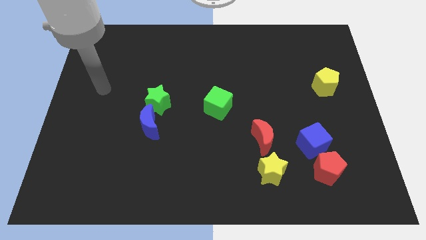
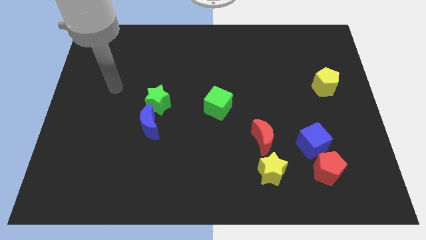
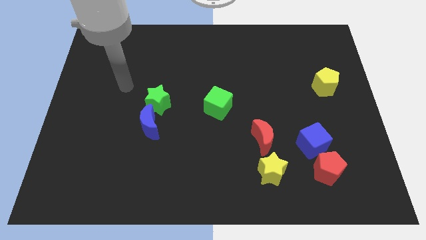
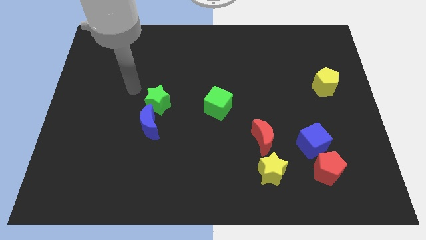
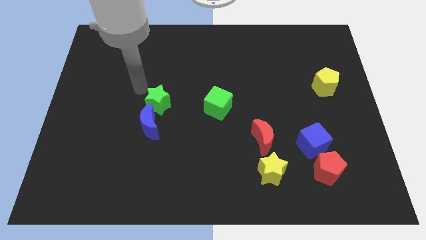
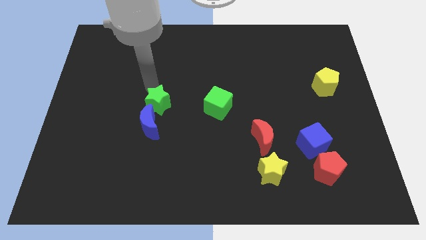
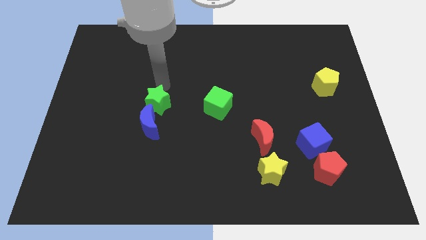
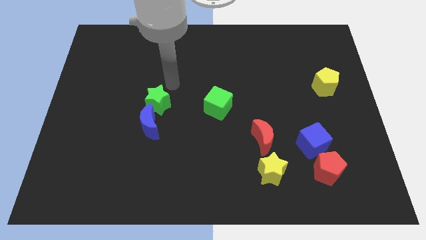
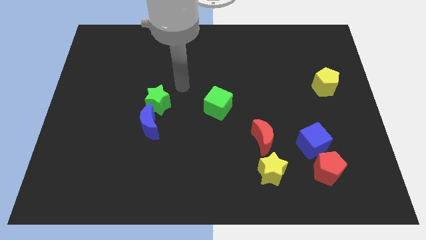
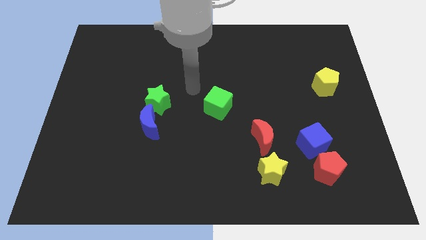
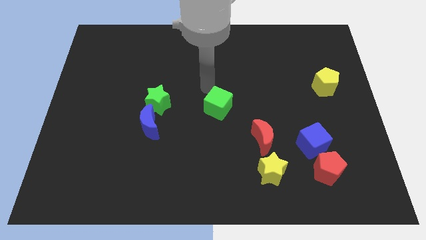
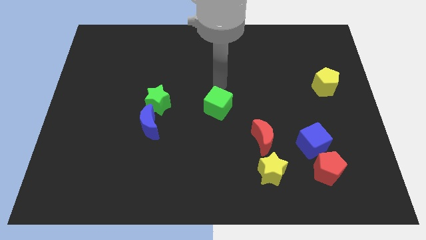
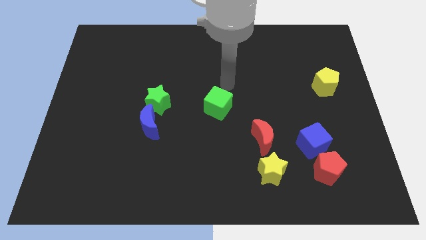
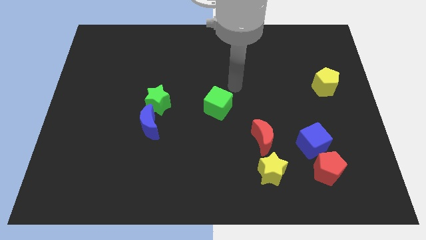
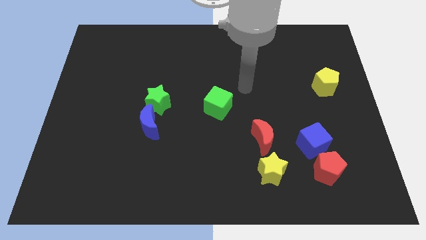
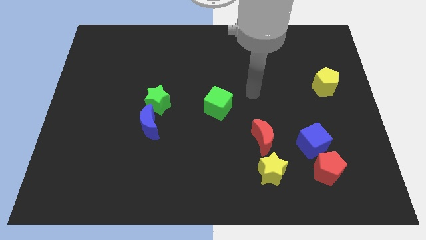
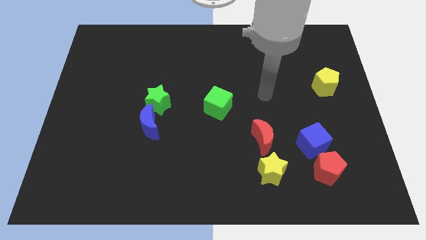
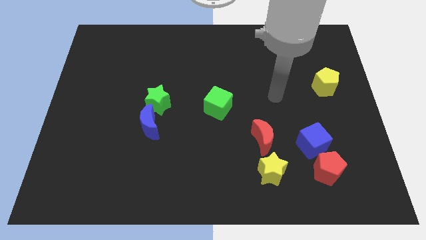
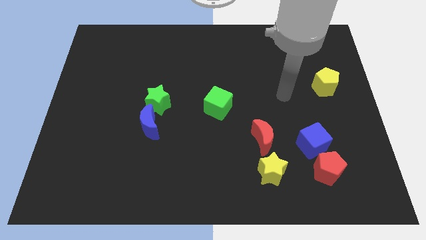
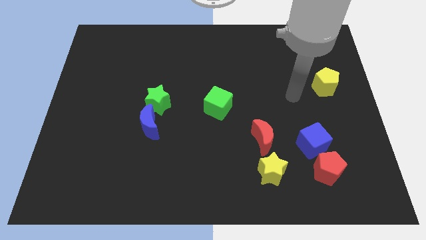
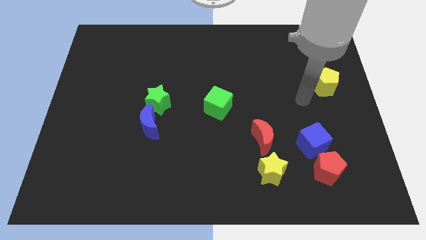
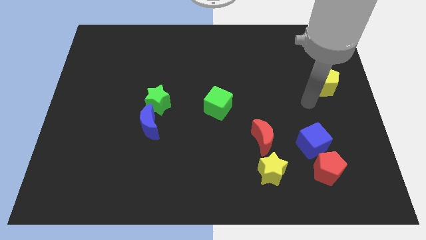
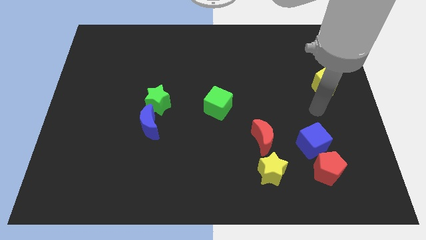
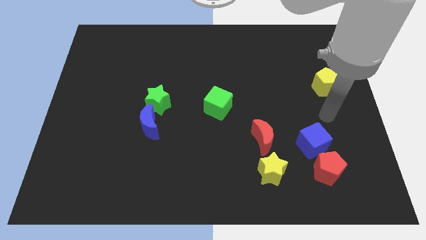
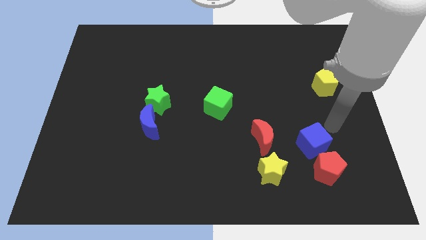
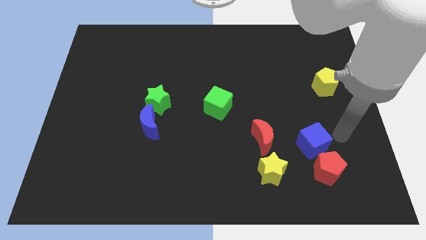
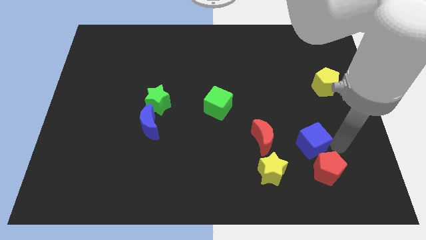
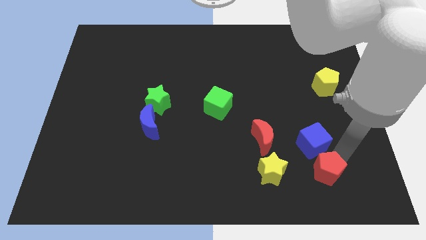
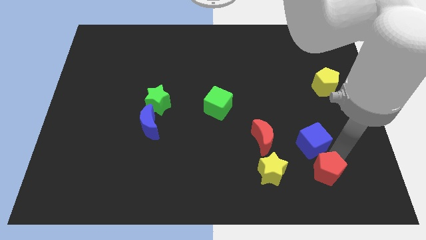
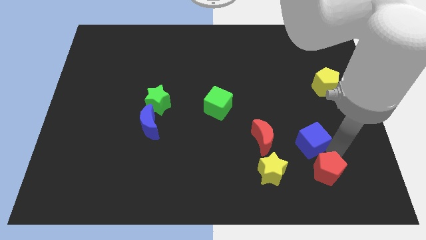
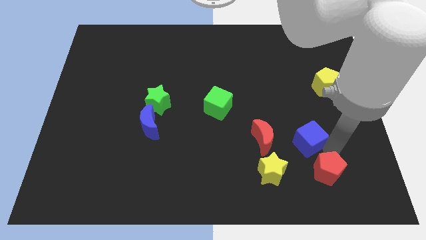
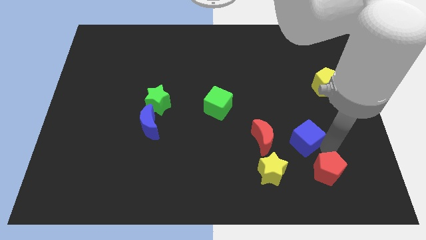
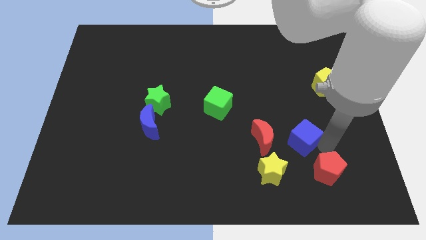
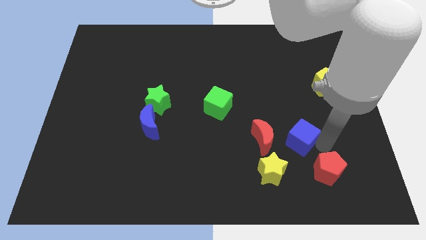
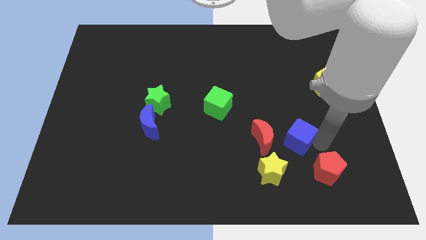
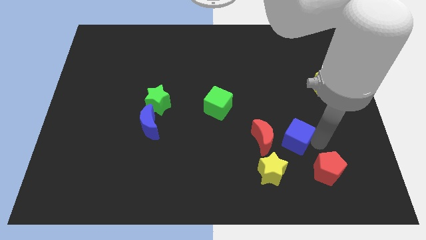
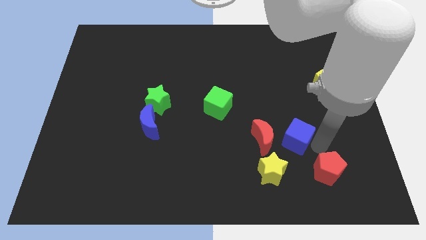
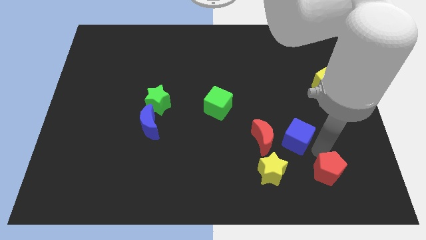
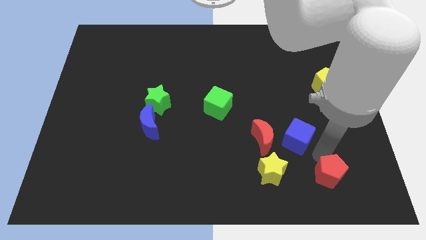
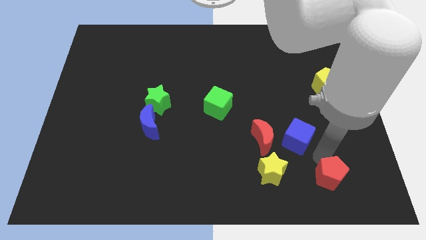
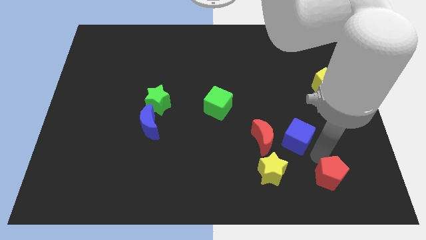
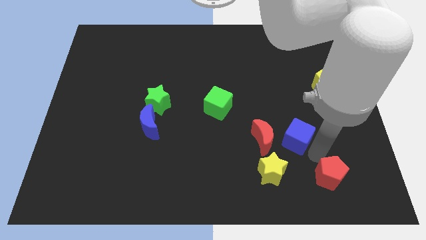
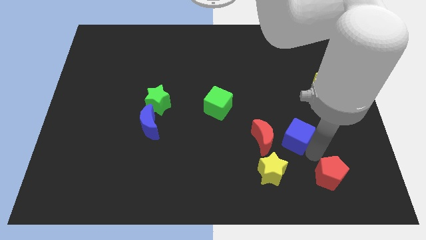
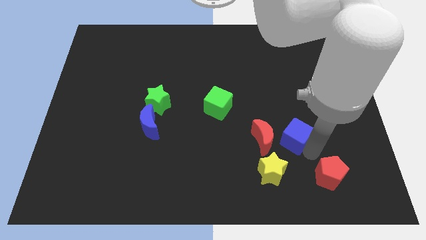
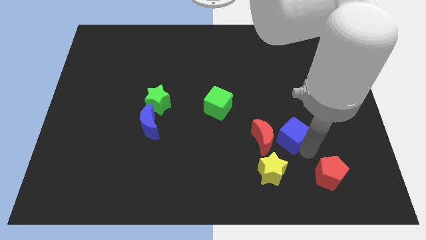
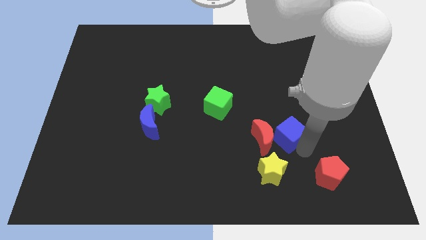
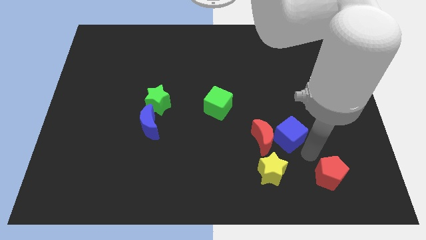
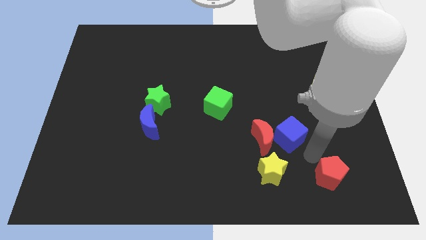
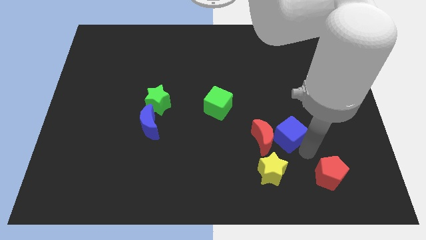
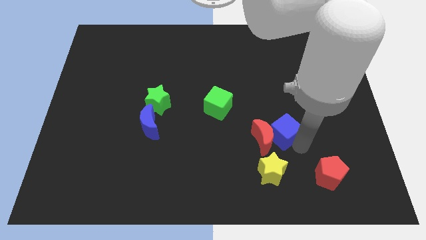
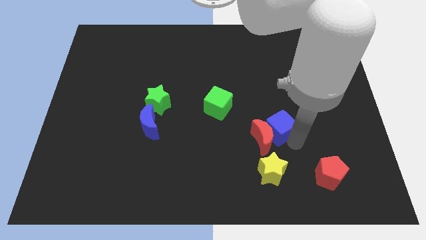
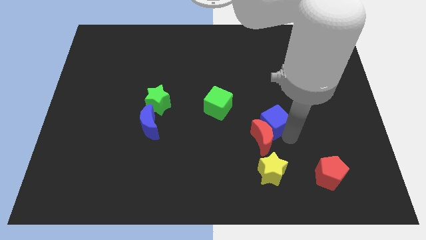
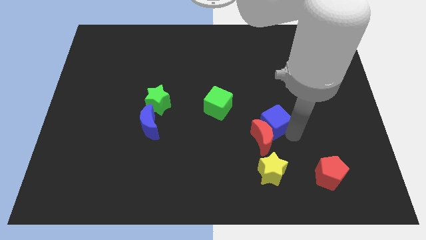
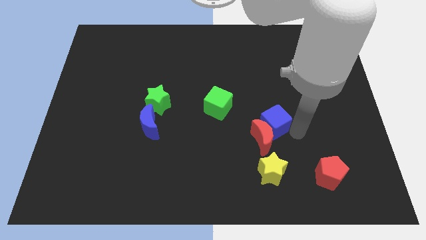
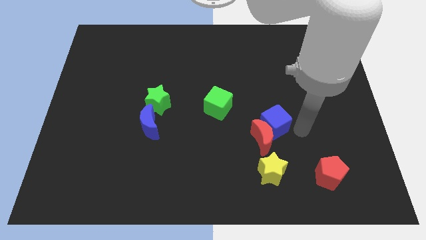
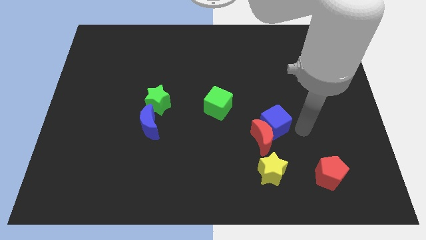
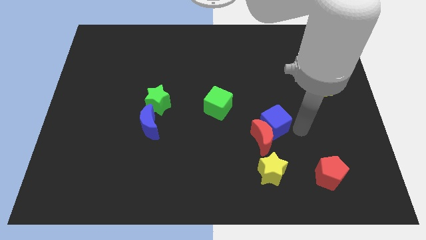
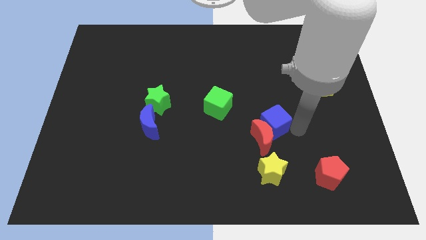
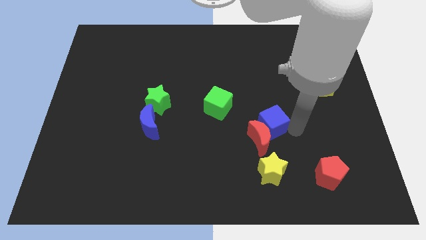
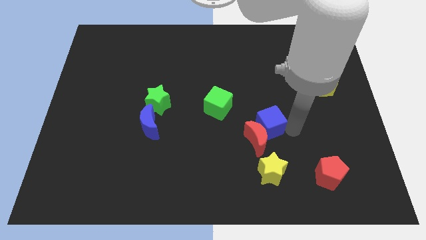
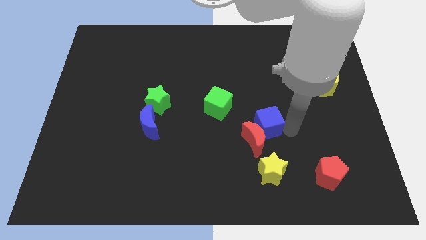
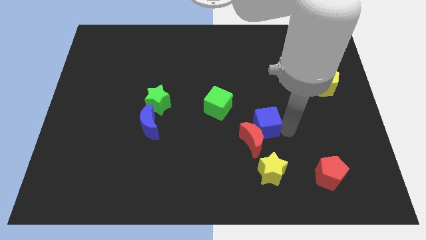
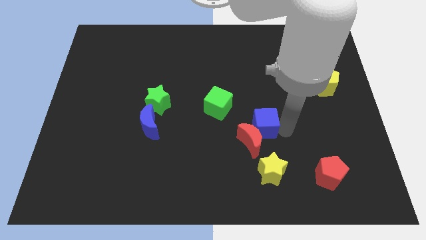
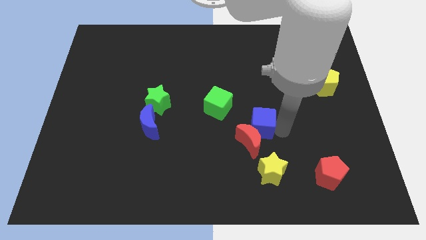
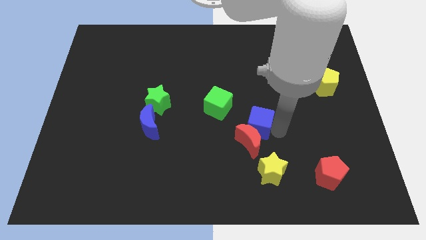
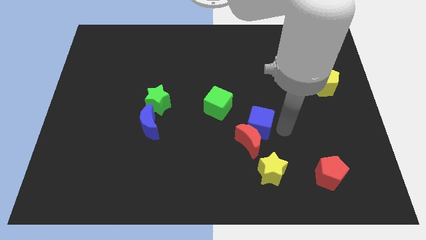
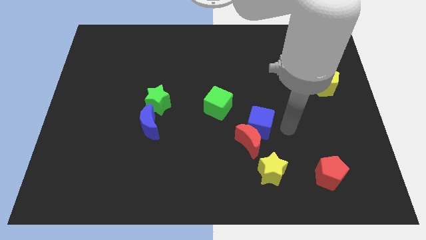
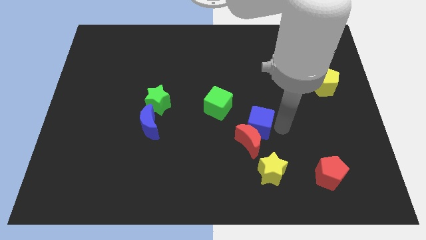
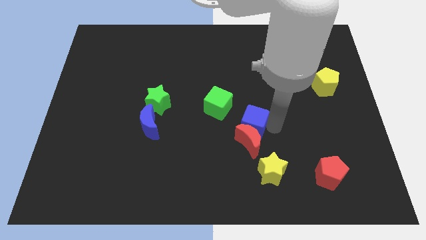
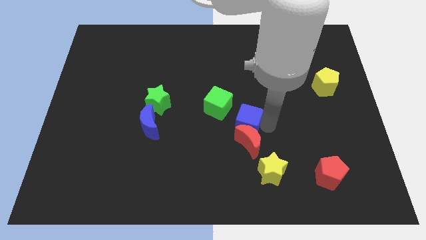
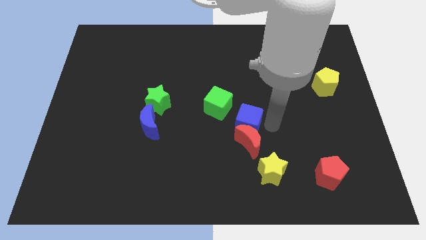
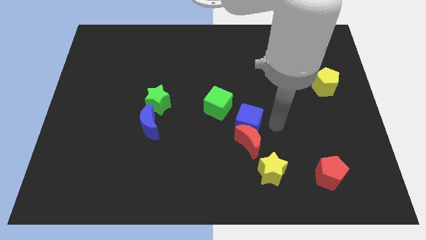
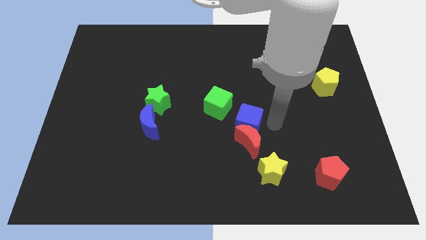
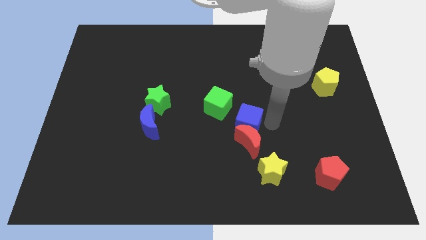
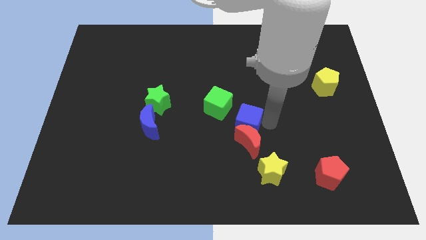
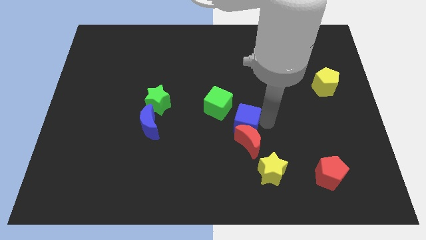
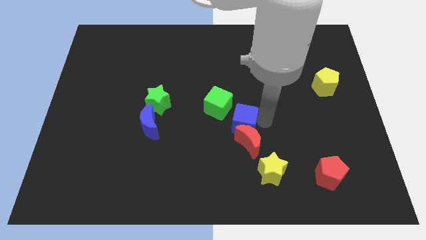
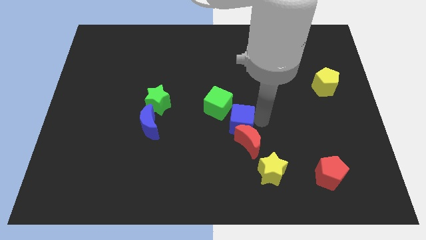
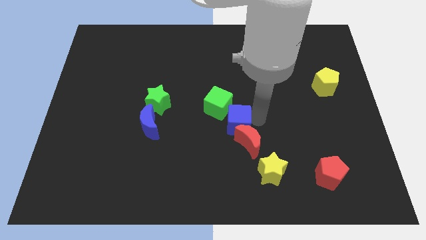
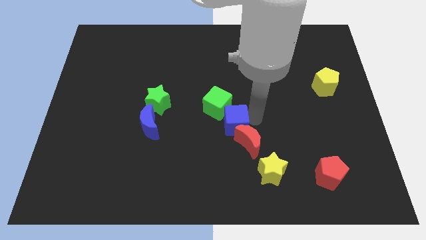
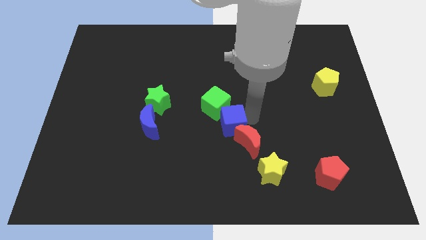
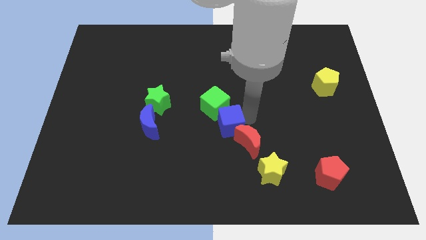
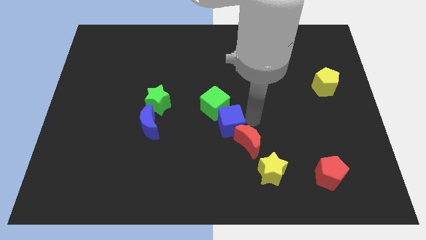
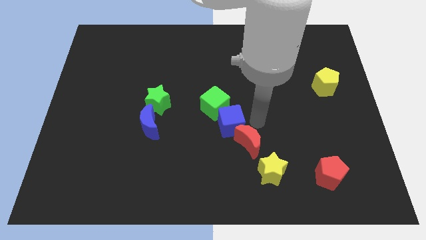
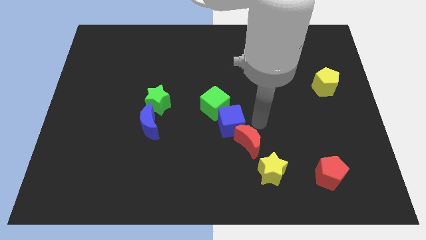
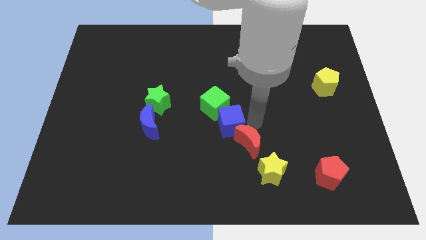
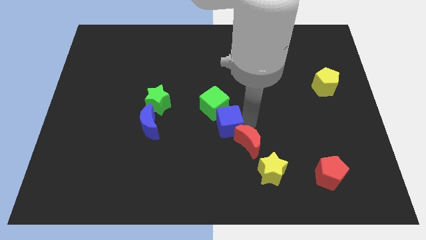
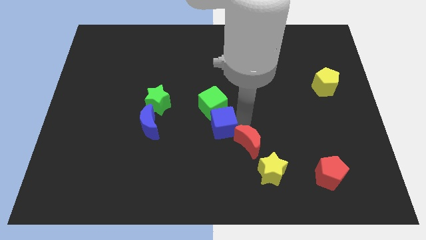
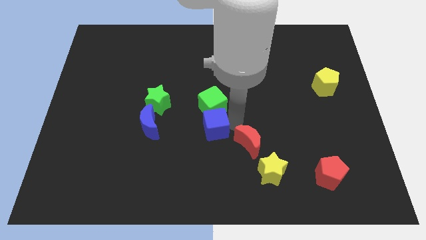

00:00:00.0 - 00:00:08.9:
slide the blue cube left
